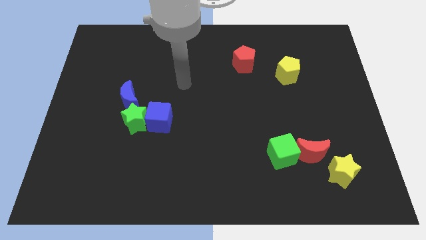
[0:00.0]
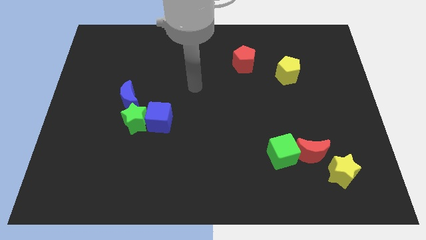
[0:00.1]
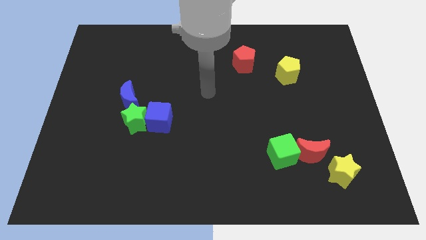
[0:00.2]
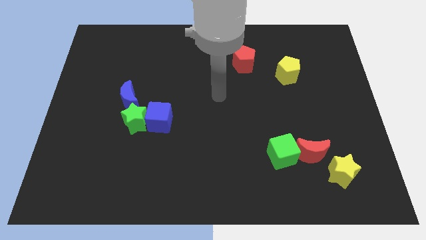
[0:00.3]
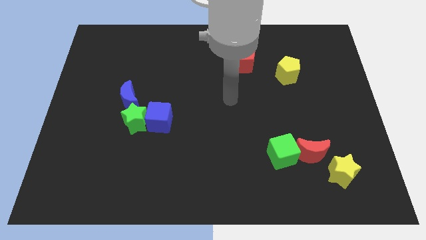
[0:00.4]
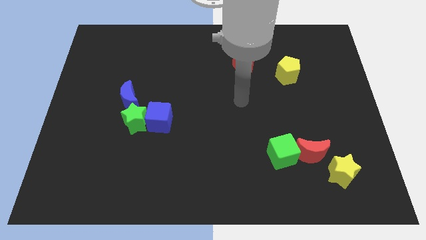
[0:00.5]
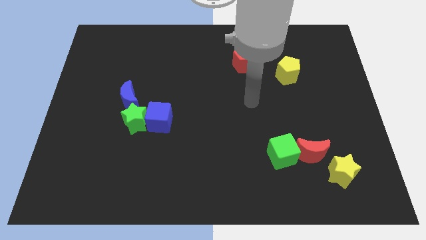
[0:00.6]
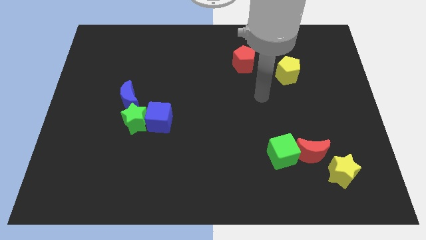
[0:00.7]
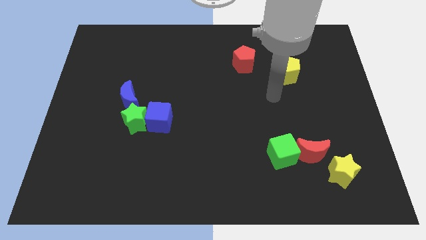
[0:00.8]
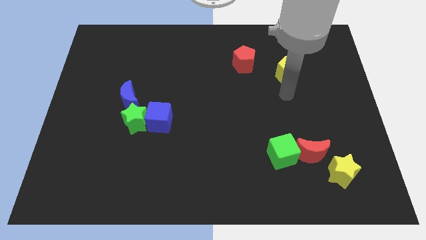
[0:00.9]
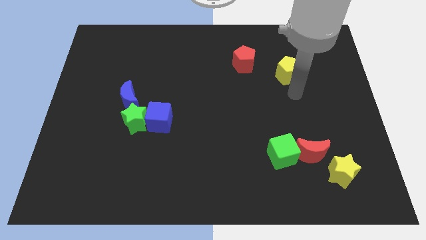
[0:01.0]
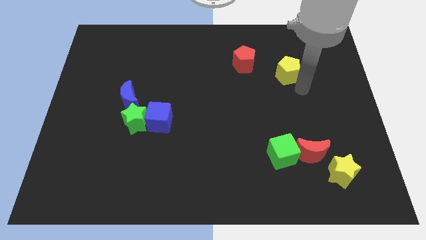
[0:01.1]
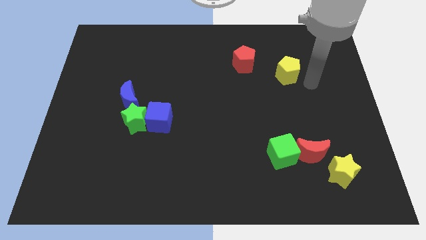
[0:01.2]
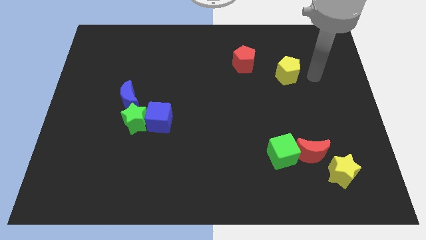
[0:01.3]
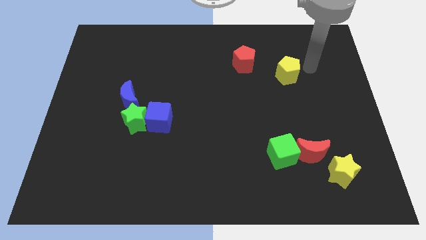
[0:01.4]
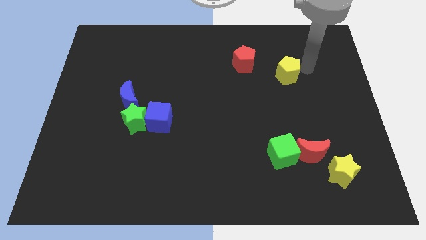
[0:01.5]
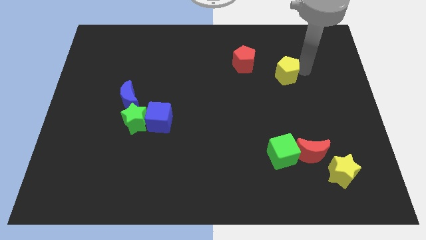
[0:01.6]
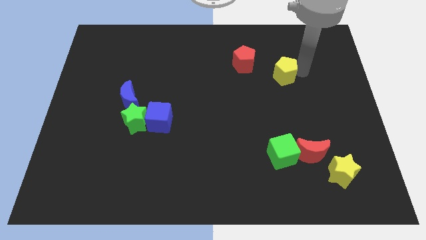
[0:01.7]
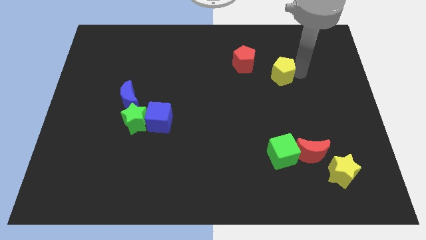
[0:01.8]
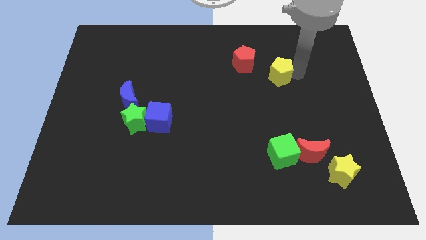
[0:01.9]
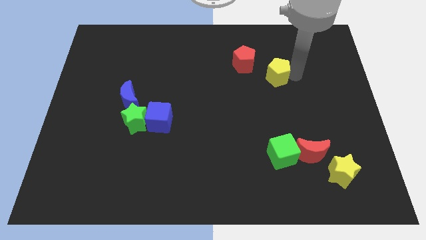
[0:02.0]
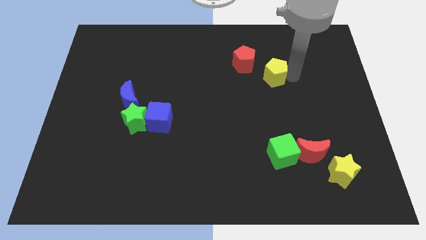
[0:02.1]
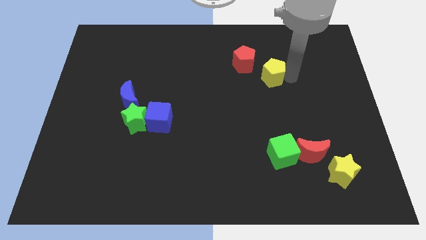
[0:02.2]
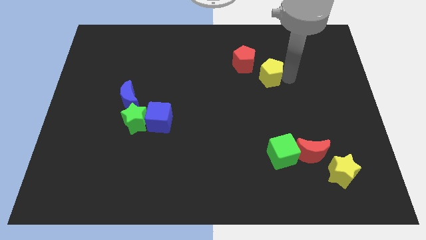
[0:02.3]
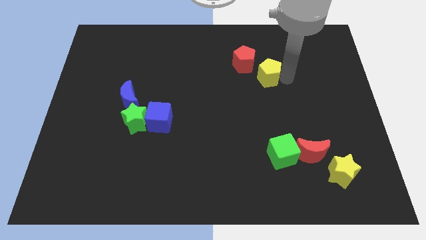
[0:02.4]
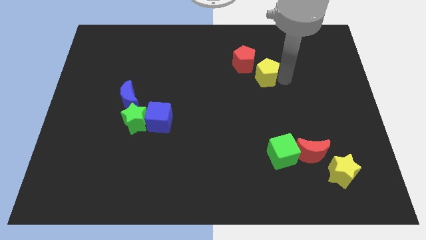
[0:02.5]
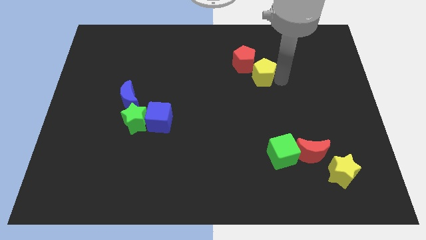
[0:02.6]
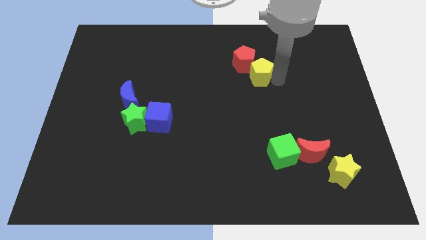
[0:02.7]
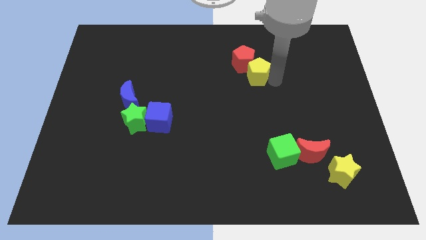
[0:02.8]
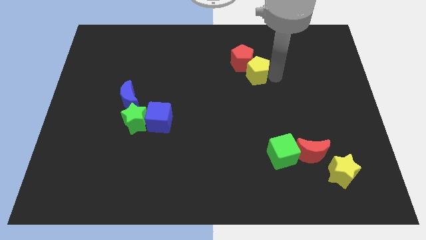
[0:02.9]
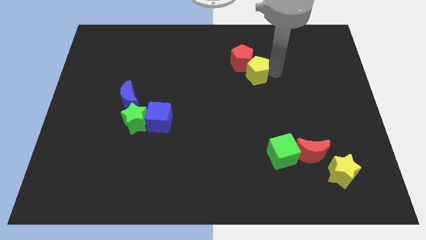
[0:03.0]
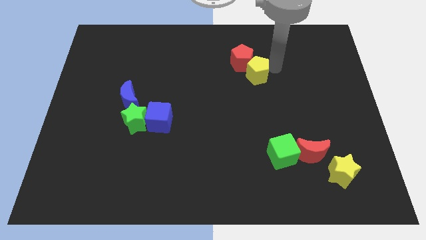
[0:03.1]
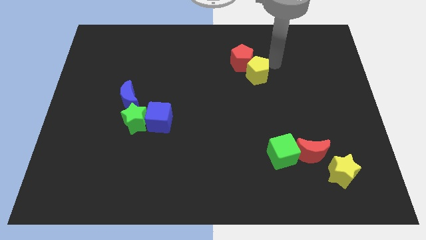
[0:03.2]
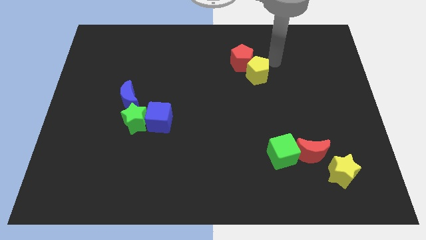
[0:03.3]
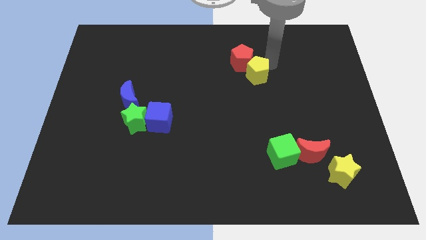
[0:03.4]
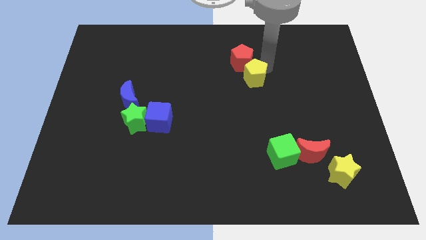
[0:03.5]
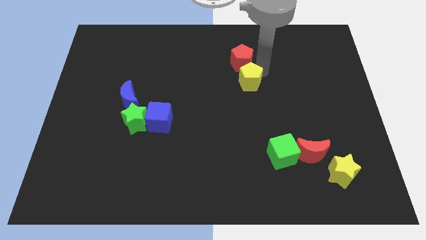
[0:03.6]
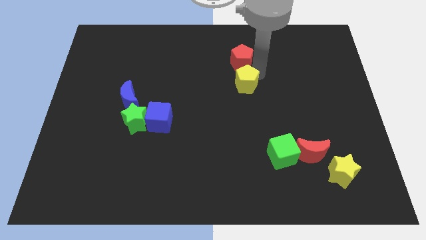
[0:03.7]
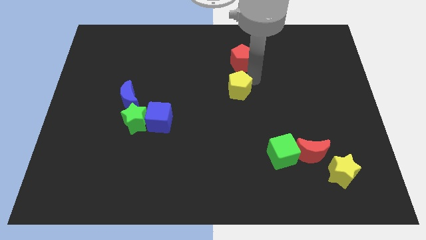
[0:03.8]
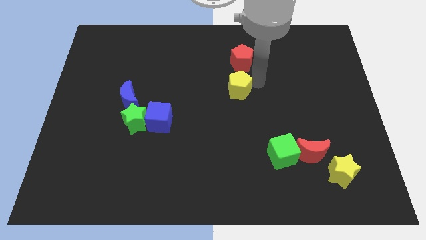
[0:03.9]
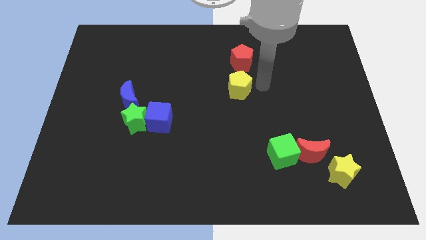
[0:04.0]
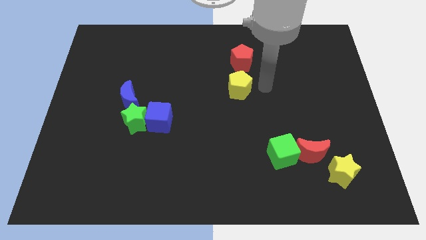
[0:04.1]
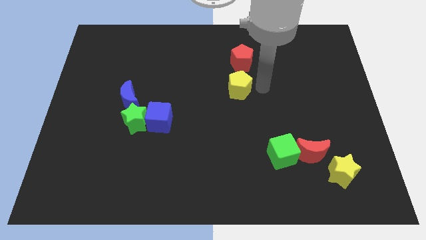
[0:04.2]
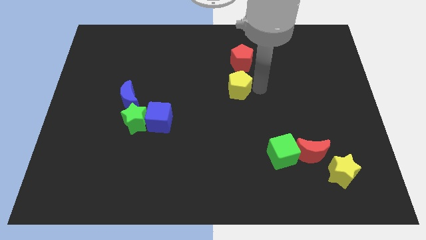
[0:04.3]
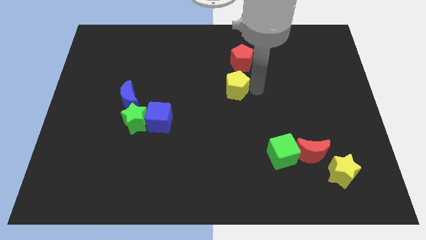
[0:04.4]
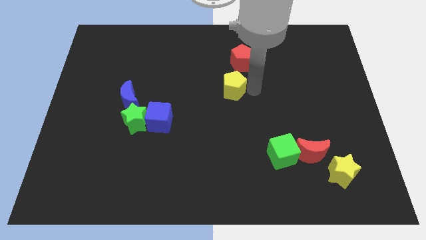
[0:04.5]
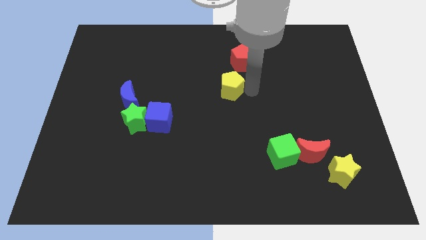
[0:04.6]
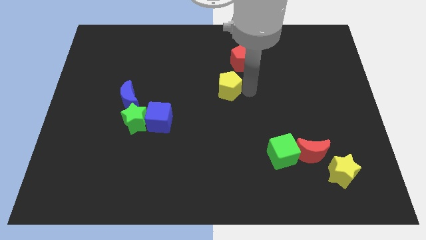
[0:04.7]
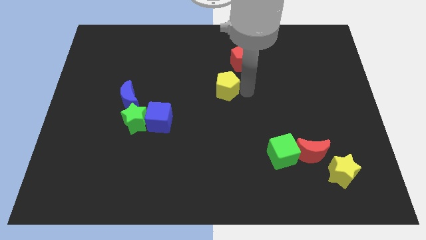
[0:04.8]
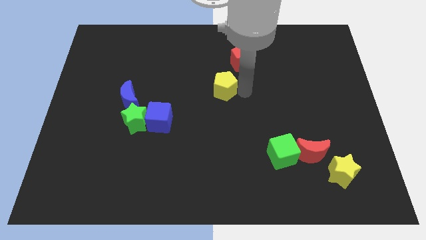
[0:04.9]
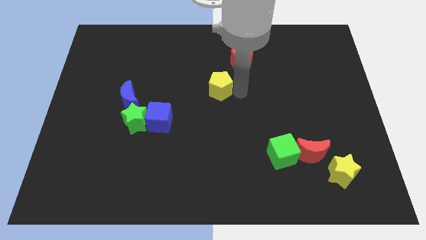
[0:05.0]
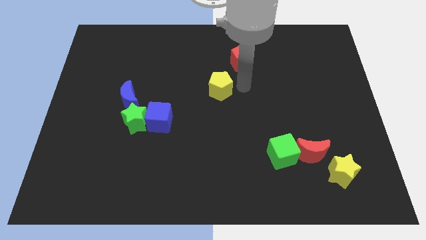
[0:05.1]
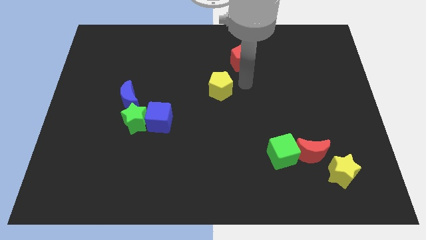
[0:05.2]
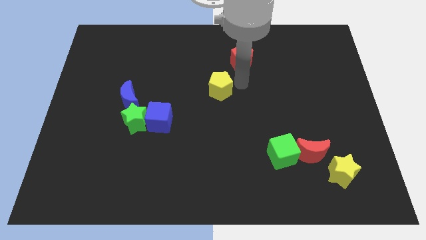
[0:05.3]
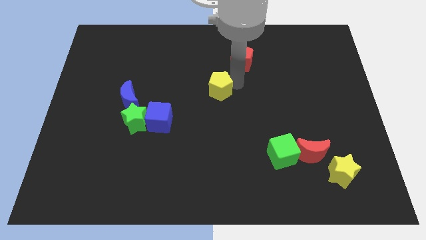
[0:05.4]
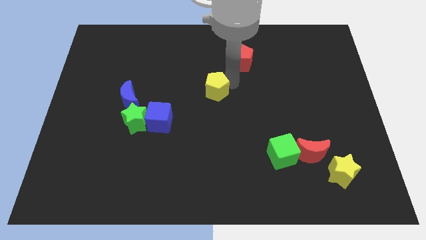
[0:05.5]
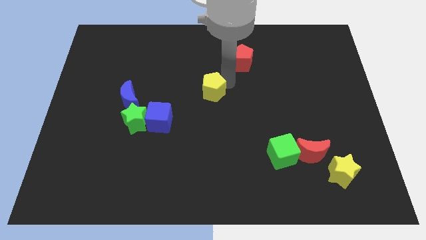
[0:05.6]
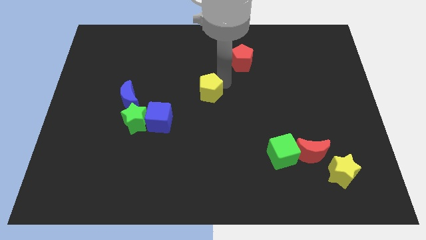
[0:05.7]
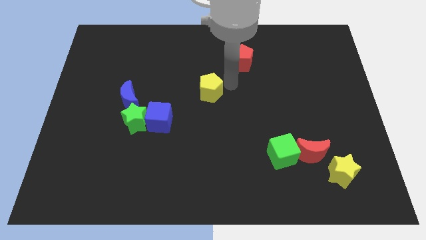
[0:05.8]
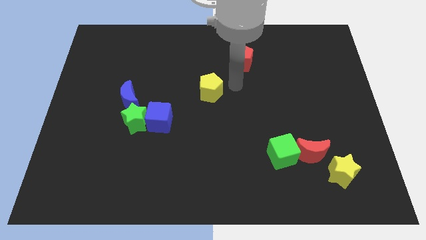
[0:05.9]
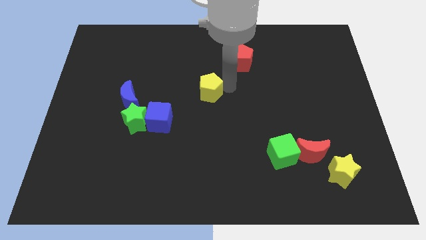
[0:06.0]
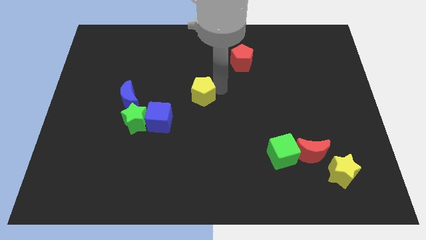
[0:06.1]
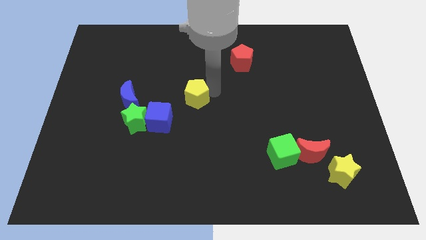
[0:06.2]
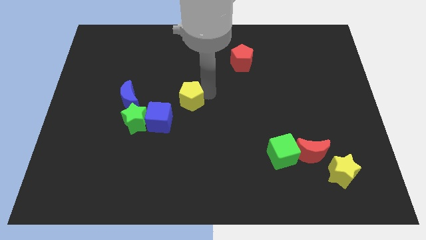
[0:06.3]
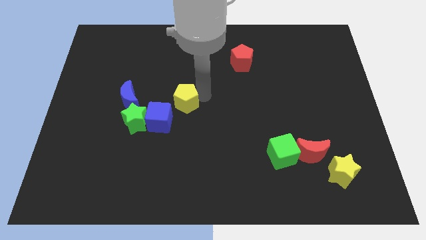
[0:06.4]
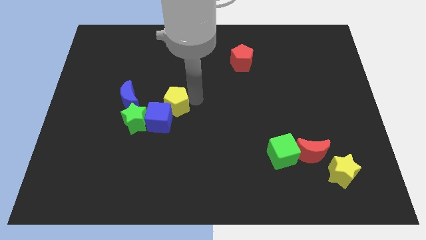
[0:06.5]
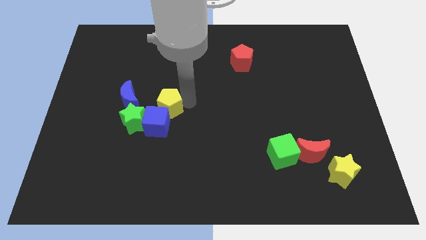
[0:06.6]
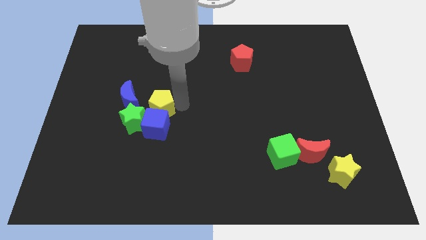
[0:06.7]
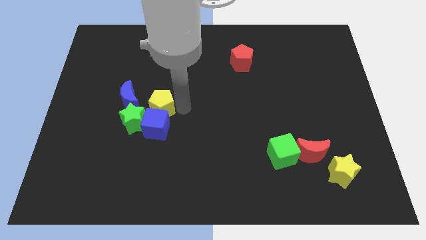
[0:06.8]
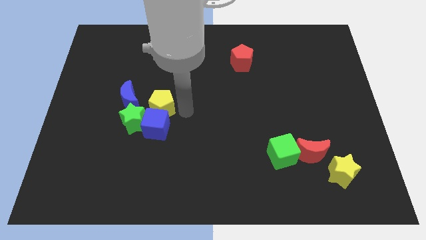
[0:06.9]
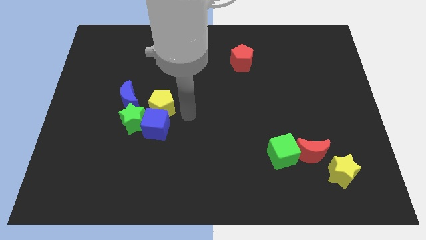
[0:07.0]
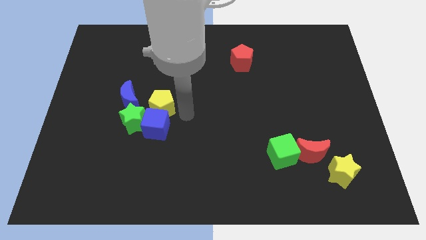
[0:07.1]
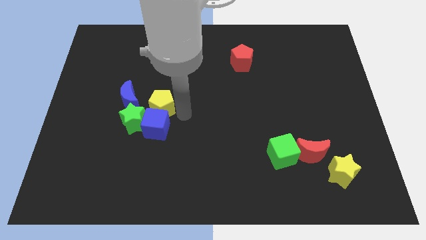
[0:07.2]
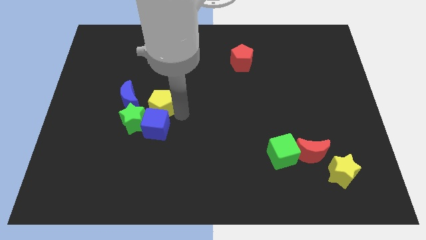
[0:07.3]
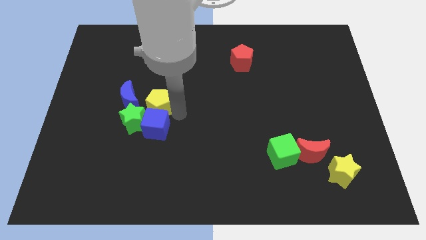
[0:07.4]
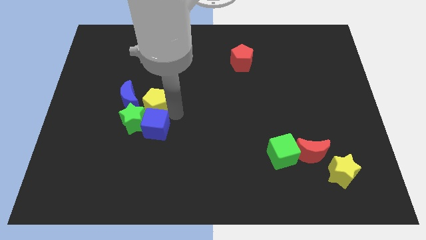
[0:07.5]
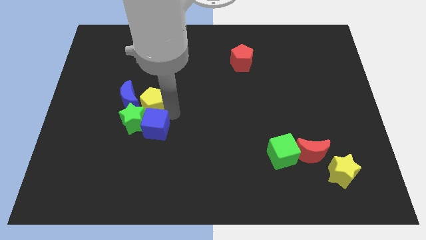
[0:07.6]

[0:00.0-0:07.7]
push the yellow pentagon to the blue moon
